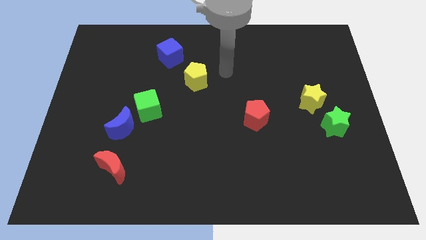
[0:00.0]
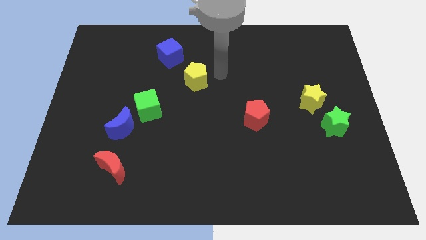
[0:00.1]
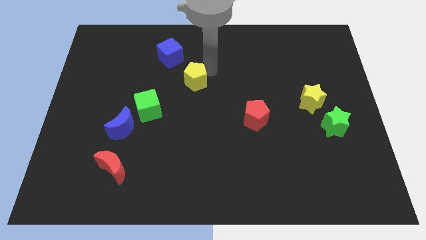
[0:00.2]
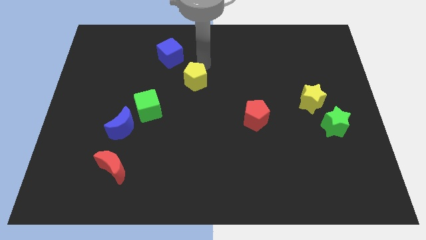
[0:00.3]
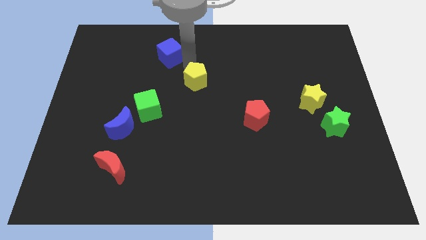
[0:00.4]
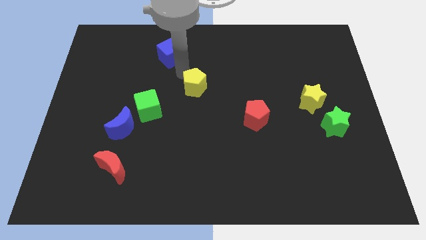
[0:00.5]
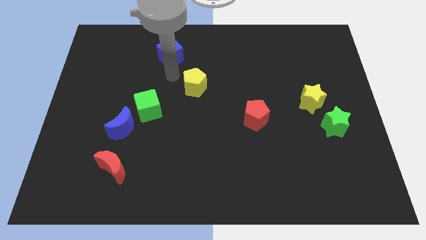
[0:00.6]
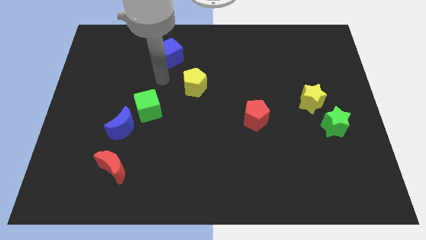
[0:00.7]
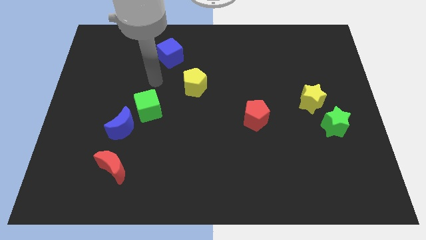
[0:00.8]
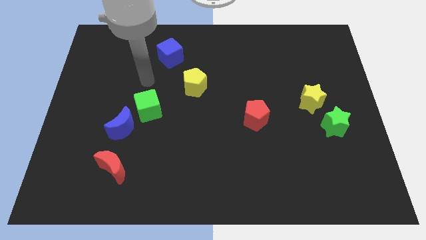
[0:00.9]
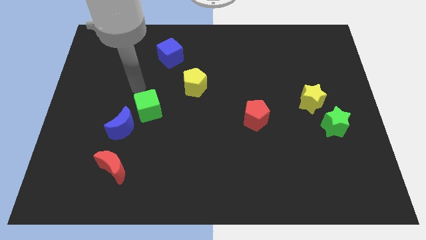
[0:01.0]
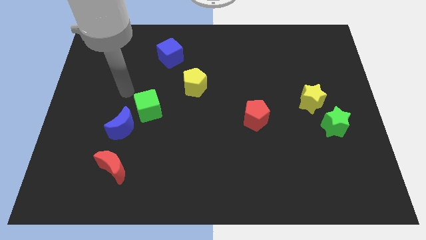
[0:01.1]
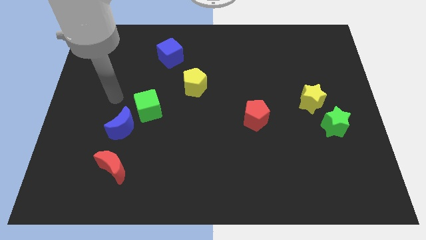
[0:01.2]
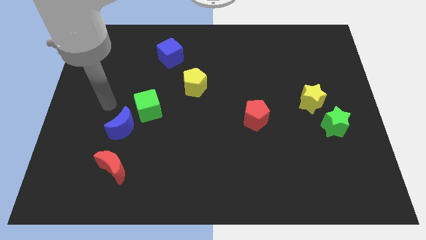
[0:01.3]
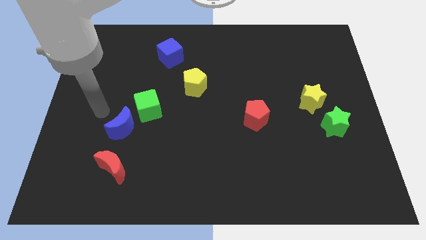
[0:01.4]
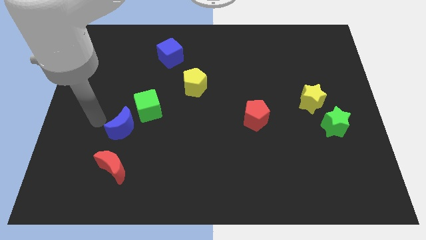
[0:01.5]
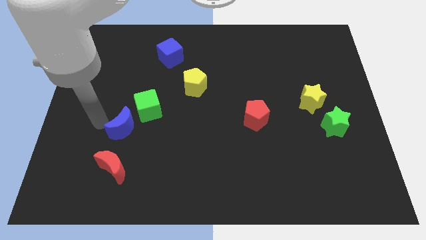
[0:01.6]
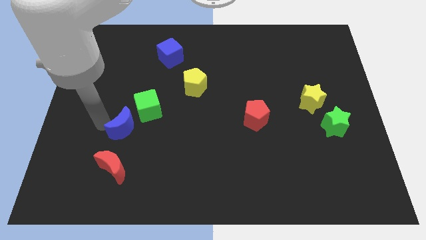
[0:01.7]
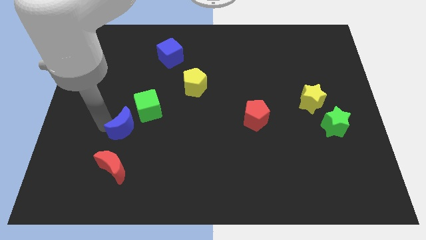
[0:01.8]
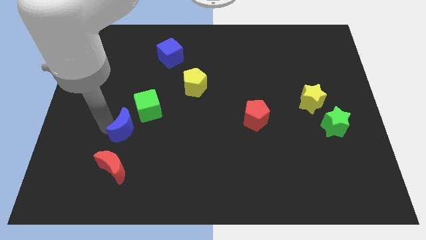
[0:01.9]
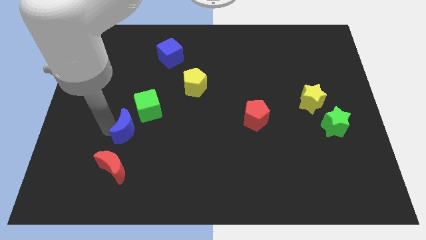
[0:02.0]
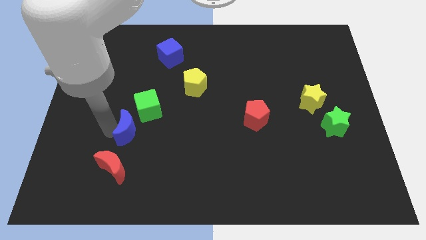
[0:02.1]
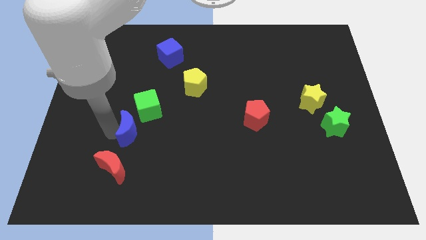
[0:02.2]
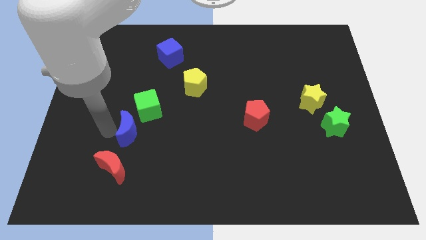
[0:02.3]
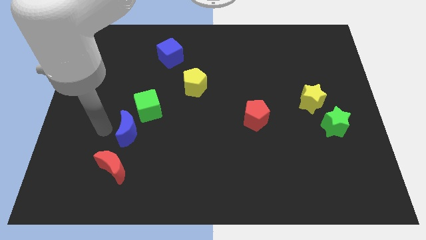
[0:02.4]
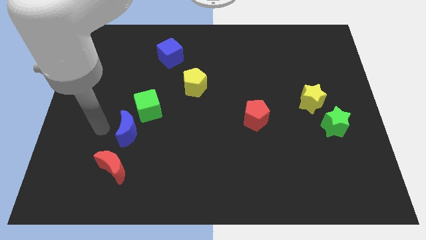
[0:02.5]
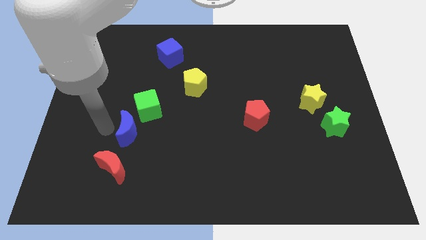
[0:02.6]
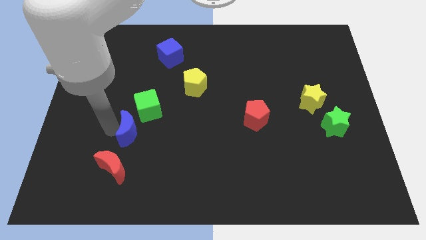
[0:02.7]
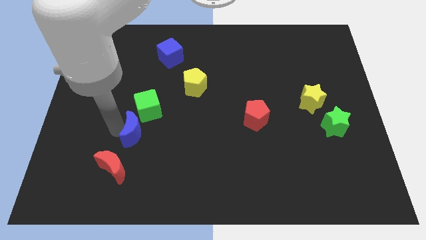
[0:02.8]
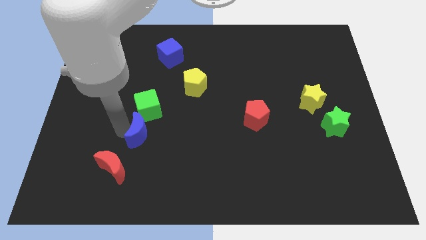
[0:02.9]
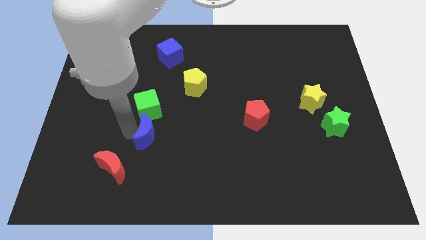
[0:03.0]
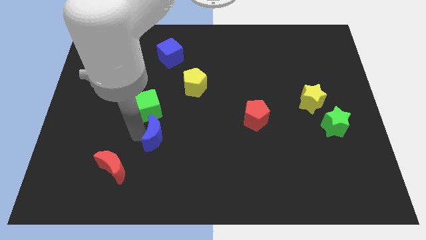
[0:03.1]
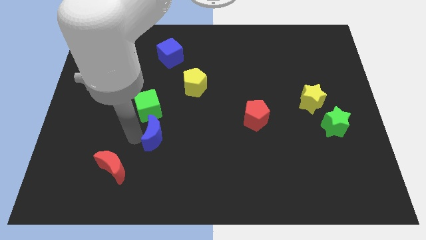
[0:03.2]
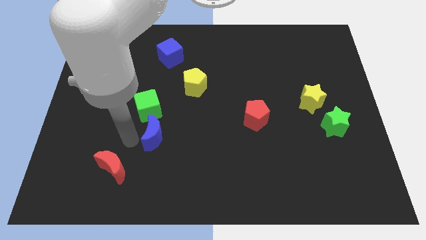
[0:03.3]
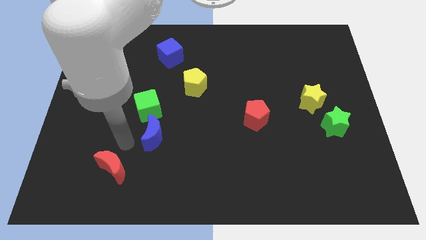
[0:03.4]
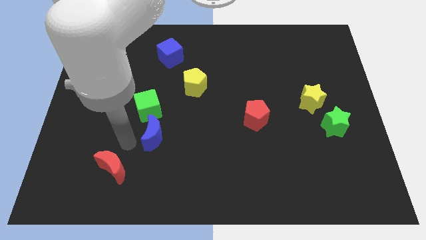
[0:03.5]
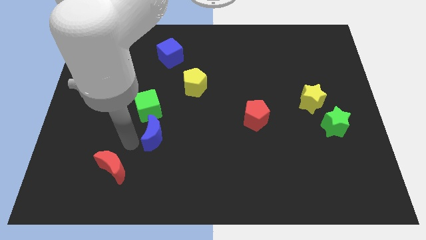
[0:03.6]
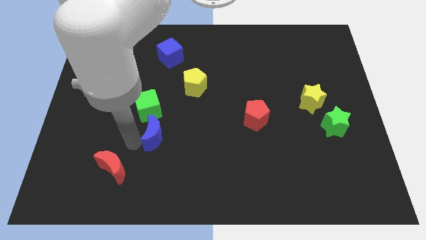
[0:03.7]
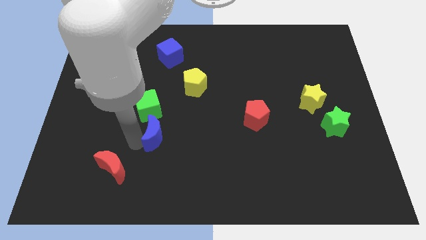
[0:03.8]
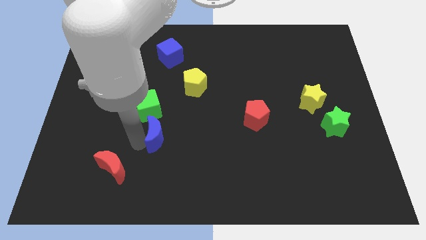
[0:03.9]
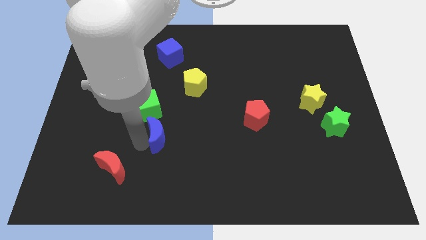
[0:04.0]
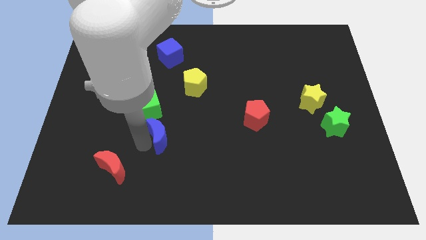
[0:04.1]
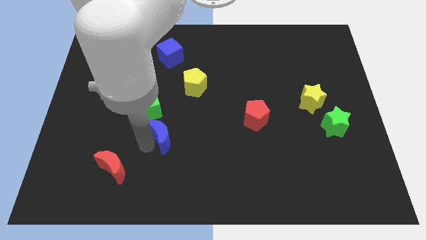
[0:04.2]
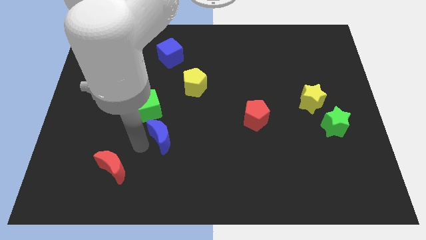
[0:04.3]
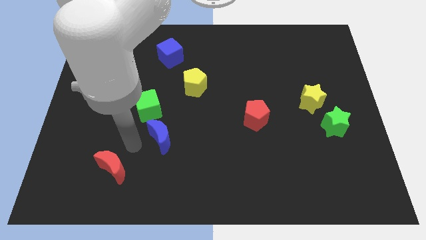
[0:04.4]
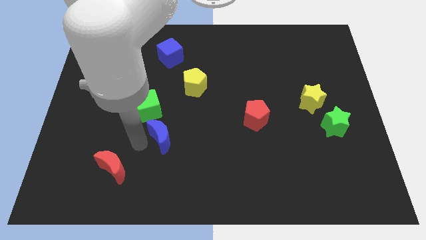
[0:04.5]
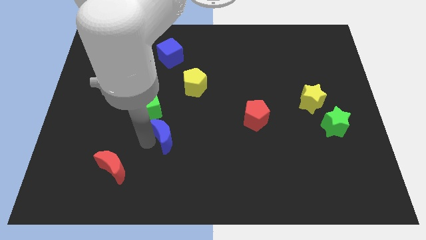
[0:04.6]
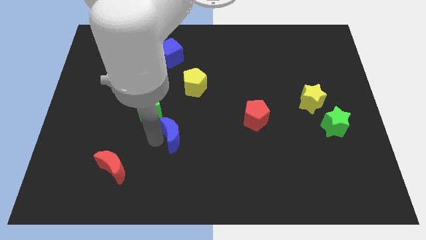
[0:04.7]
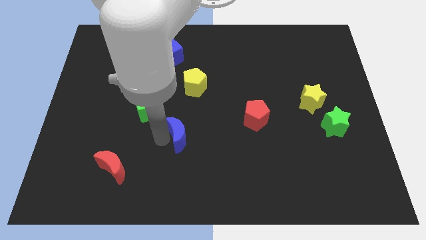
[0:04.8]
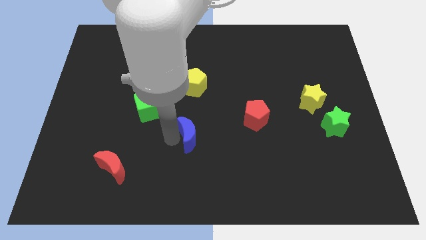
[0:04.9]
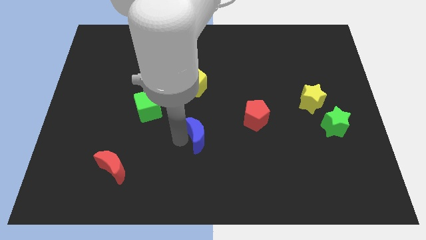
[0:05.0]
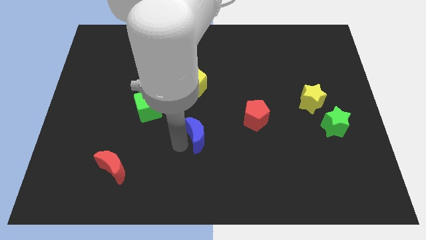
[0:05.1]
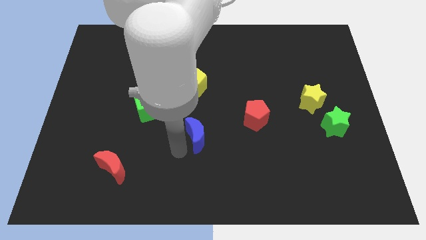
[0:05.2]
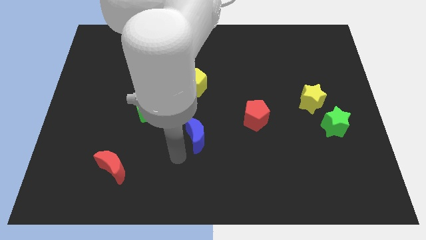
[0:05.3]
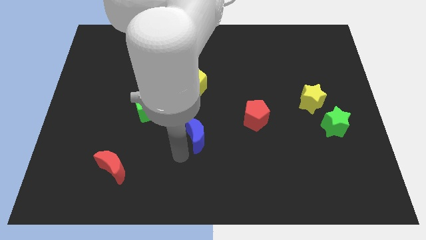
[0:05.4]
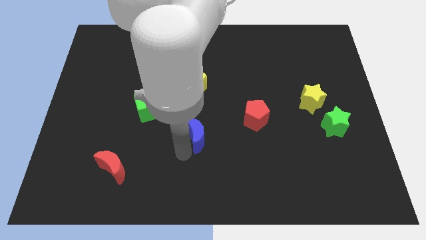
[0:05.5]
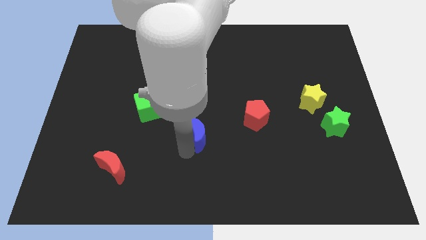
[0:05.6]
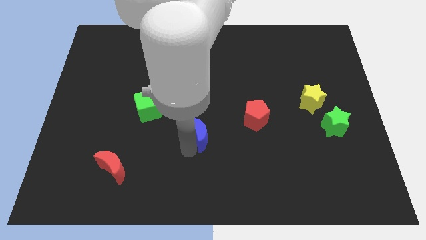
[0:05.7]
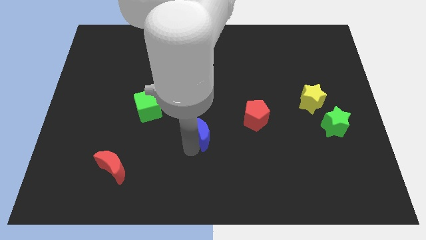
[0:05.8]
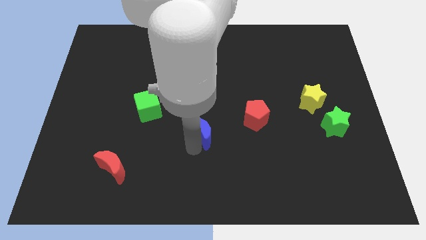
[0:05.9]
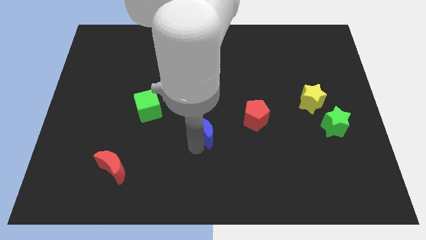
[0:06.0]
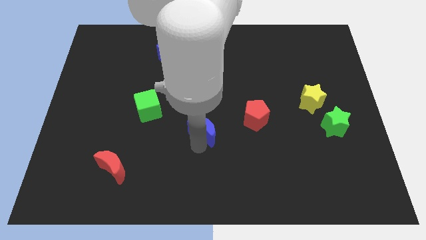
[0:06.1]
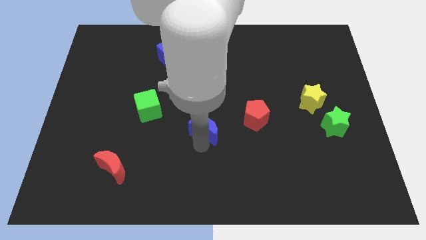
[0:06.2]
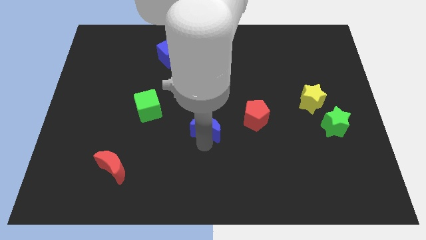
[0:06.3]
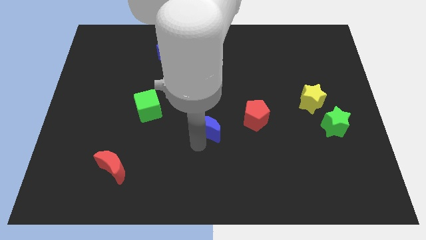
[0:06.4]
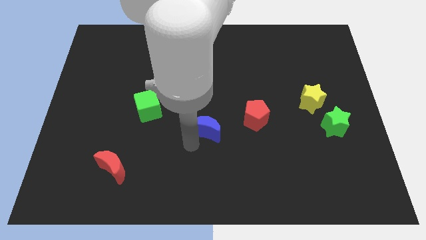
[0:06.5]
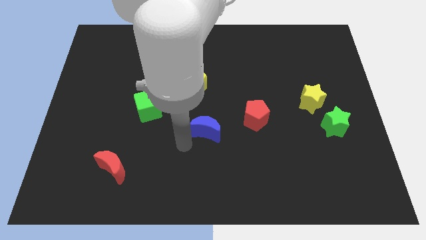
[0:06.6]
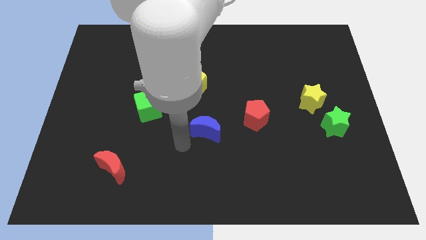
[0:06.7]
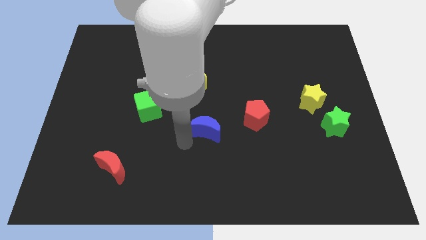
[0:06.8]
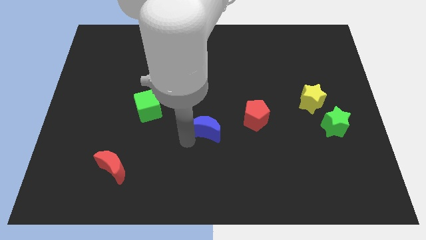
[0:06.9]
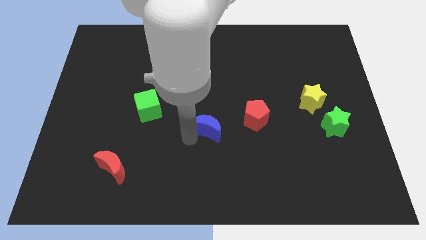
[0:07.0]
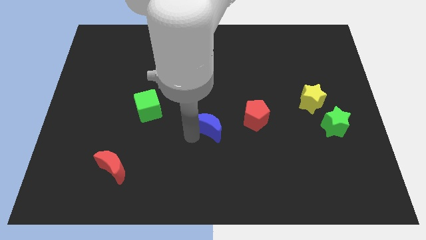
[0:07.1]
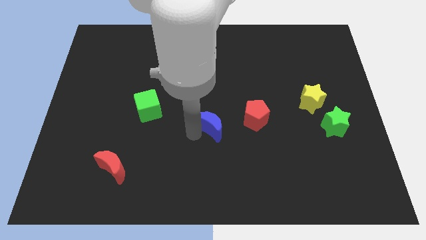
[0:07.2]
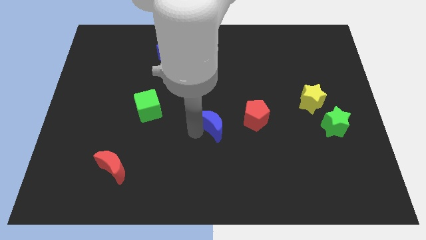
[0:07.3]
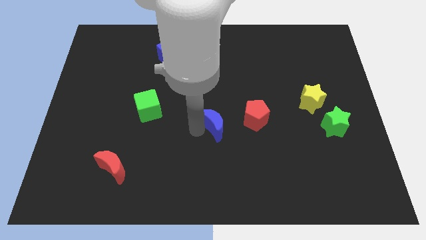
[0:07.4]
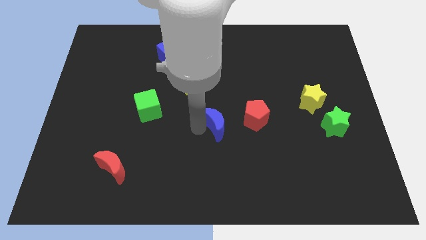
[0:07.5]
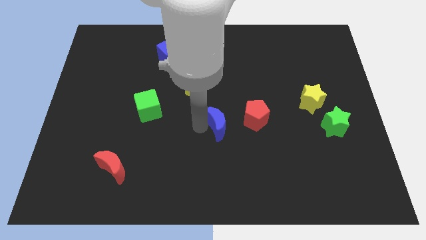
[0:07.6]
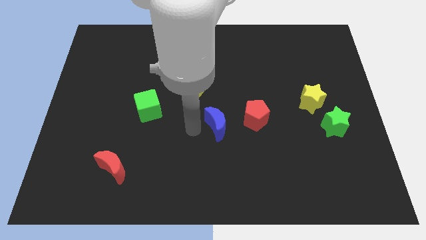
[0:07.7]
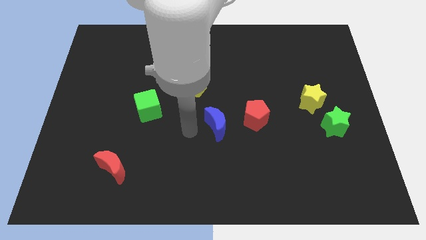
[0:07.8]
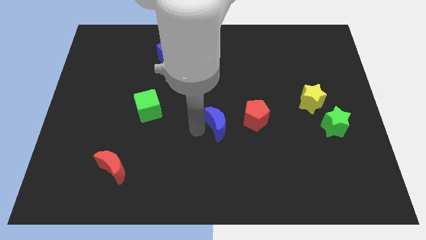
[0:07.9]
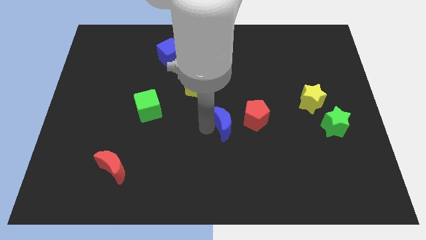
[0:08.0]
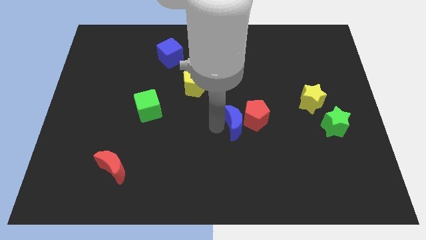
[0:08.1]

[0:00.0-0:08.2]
slide the blue moon close to the red pentagon
